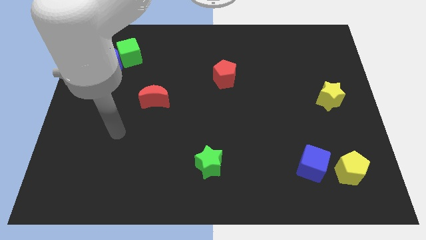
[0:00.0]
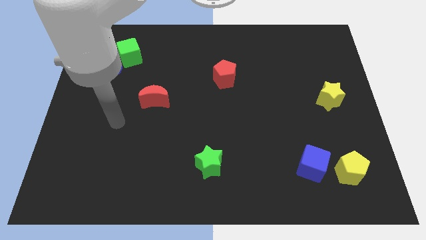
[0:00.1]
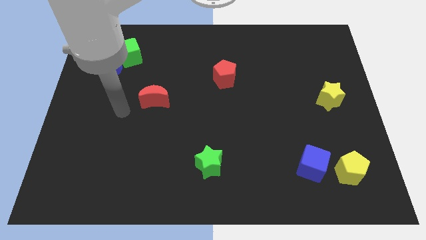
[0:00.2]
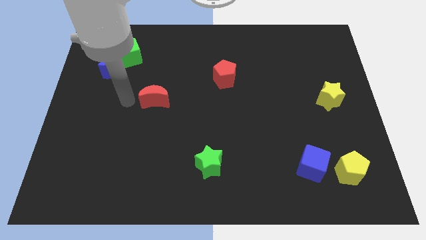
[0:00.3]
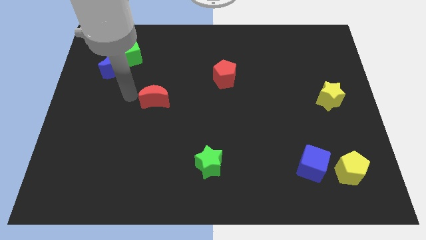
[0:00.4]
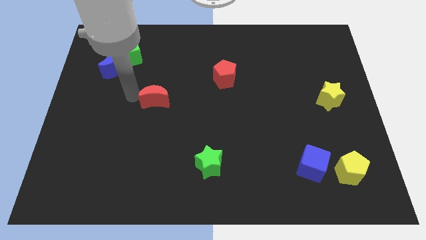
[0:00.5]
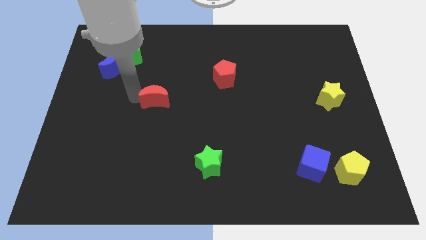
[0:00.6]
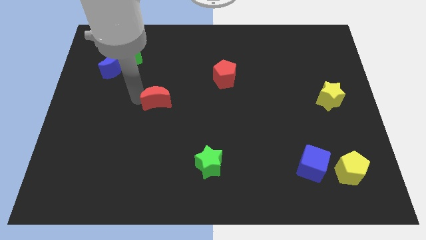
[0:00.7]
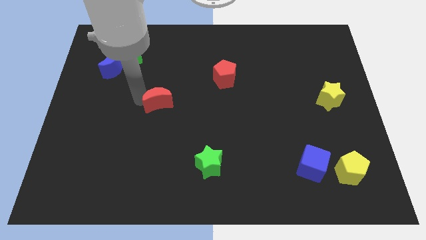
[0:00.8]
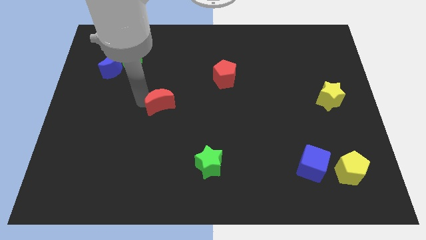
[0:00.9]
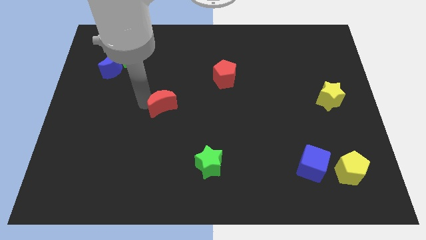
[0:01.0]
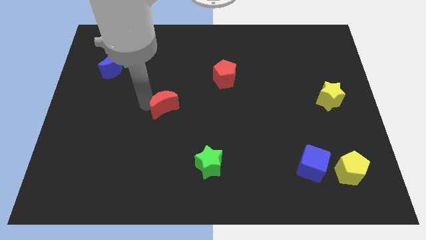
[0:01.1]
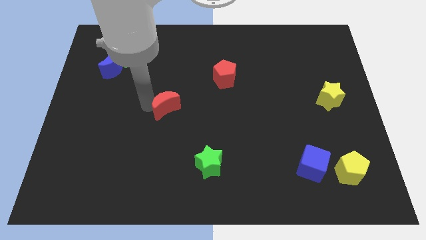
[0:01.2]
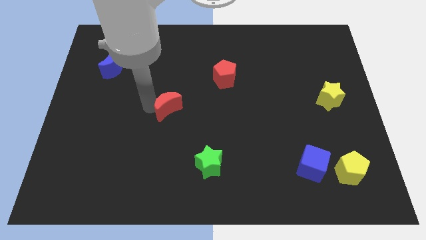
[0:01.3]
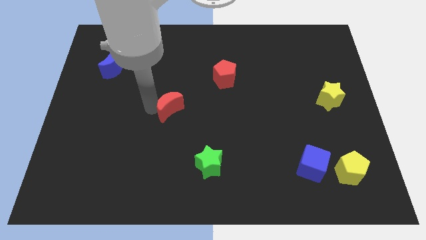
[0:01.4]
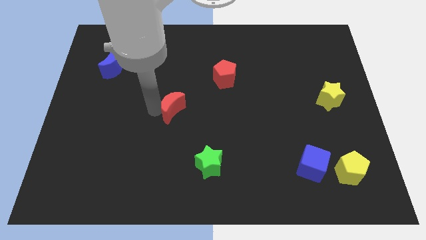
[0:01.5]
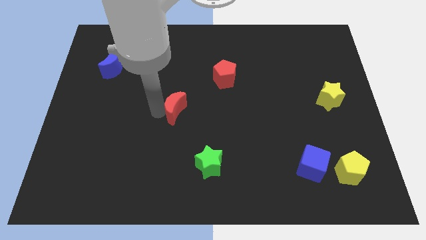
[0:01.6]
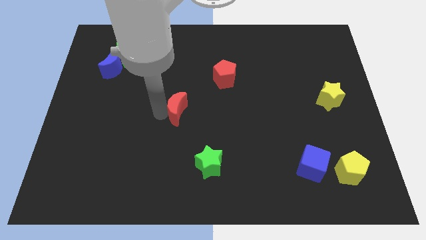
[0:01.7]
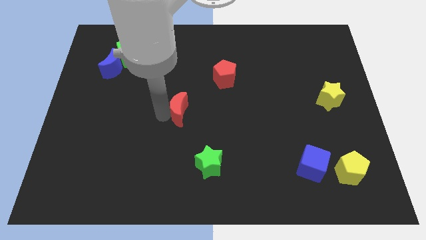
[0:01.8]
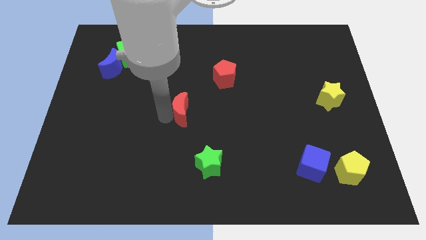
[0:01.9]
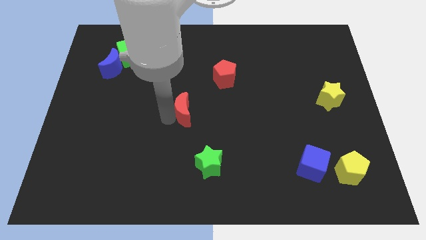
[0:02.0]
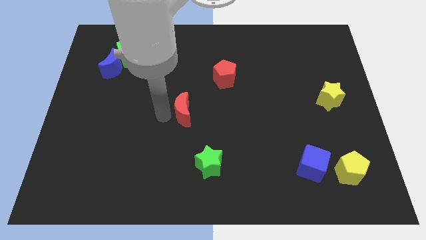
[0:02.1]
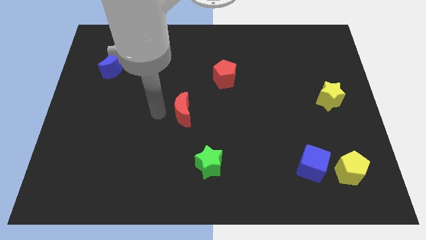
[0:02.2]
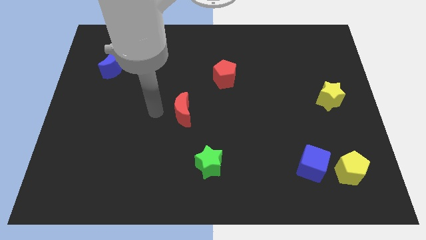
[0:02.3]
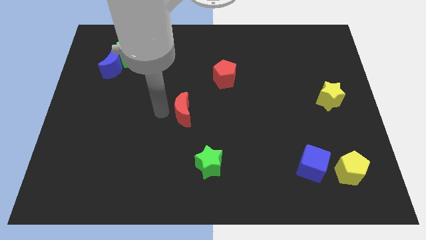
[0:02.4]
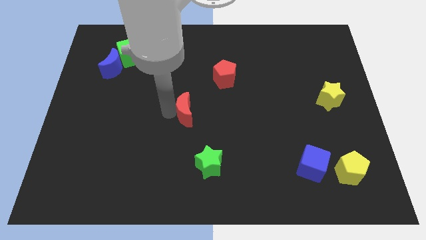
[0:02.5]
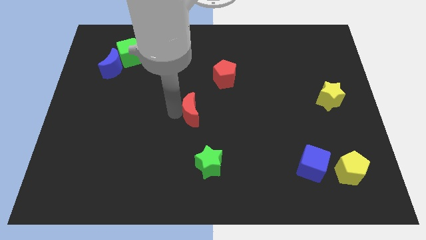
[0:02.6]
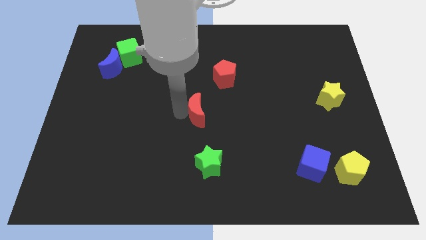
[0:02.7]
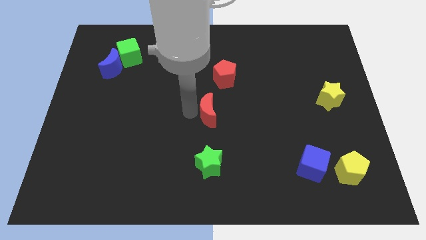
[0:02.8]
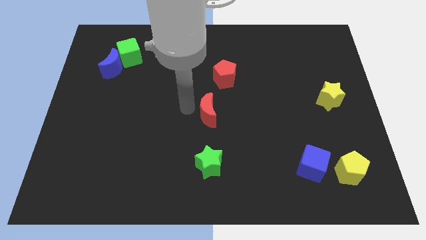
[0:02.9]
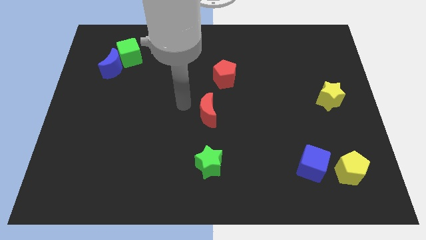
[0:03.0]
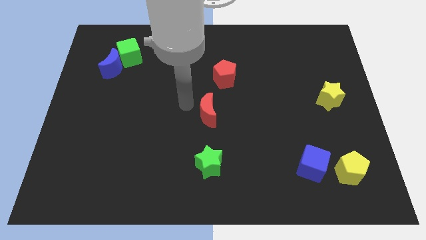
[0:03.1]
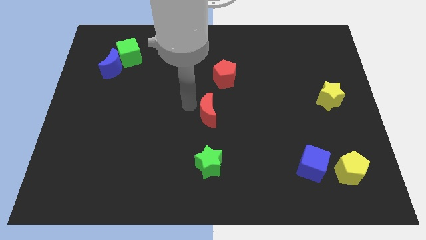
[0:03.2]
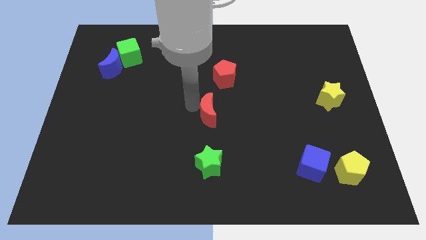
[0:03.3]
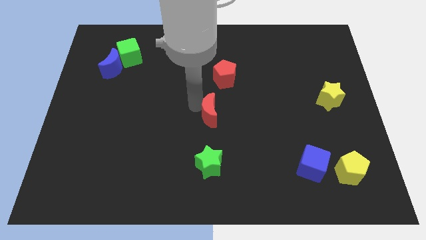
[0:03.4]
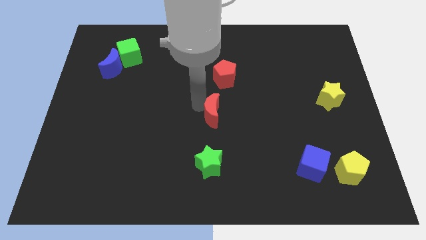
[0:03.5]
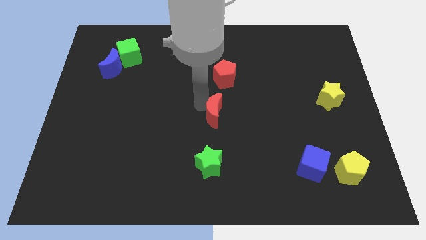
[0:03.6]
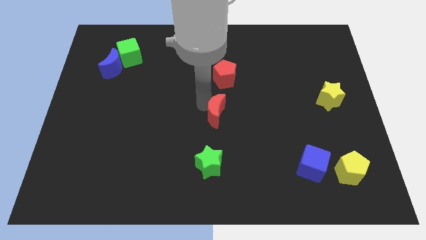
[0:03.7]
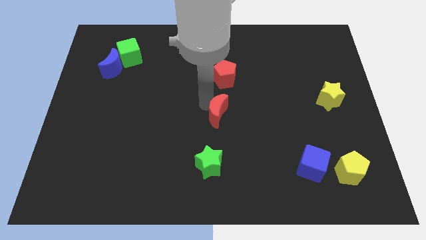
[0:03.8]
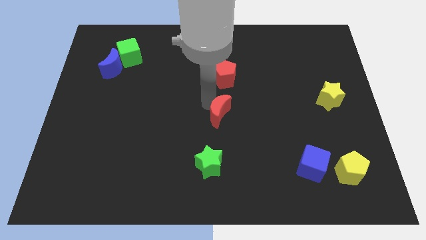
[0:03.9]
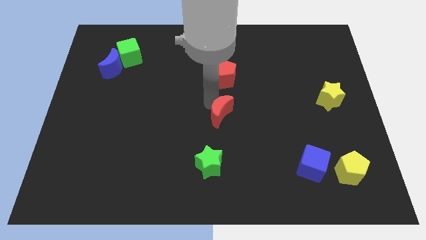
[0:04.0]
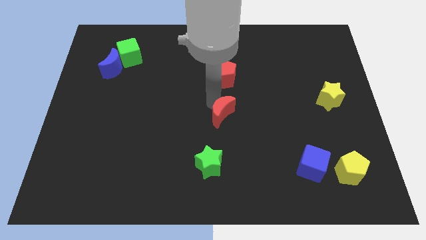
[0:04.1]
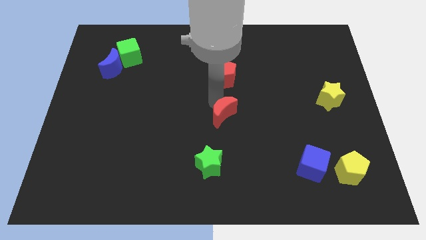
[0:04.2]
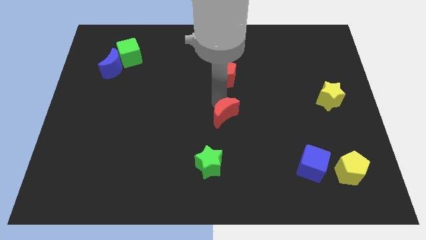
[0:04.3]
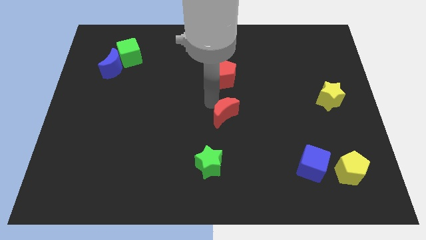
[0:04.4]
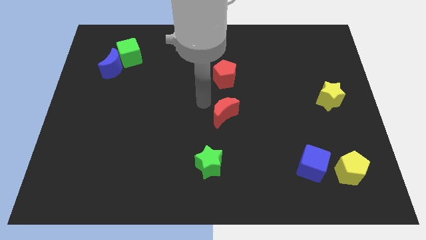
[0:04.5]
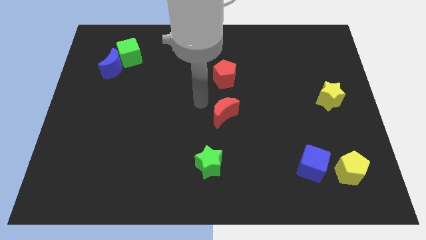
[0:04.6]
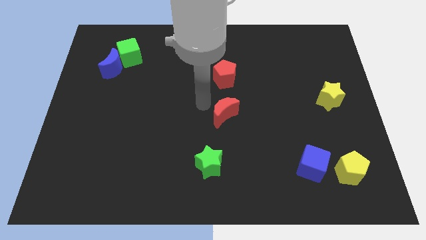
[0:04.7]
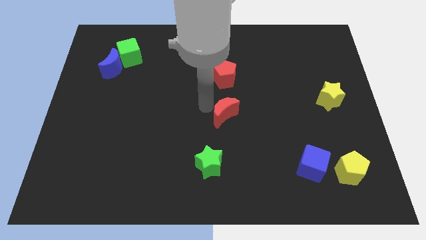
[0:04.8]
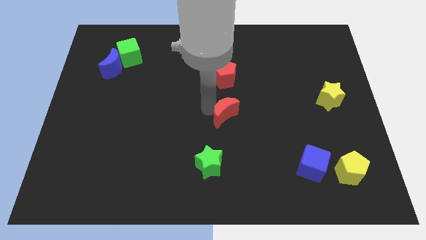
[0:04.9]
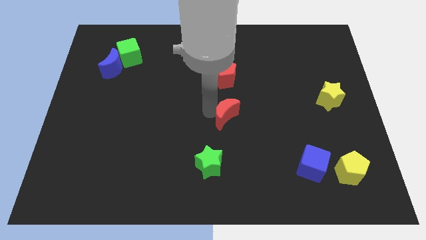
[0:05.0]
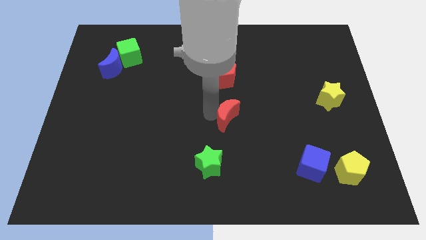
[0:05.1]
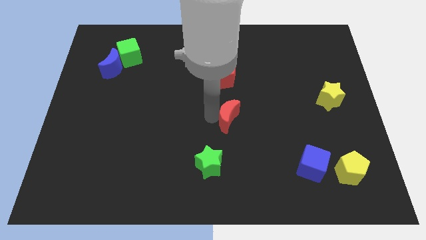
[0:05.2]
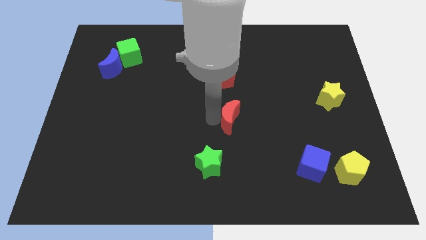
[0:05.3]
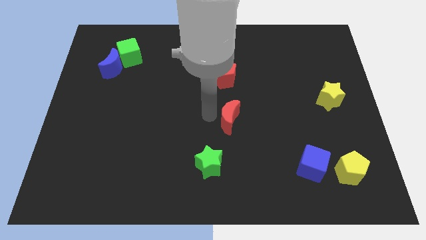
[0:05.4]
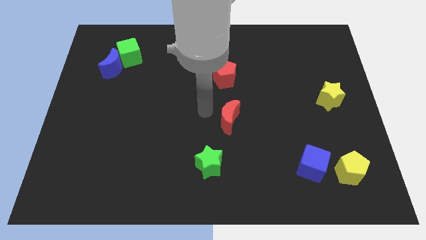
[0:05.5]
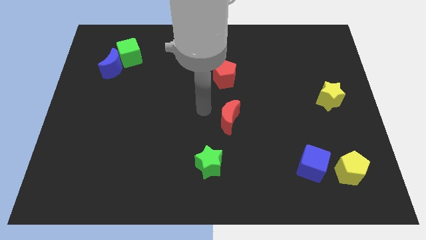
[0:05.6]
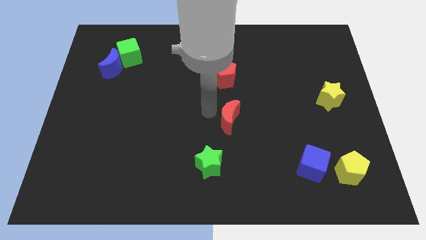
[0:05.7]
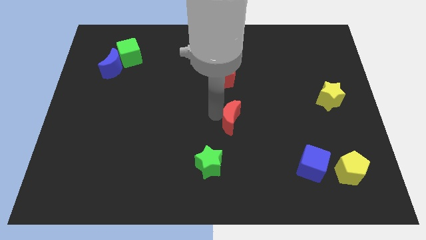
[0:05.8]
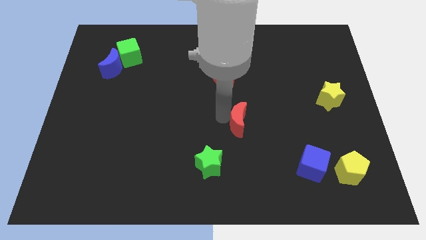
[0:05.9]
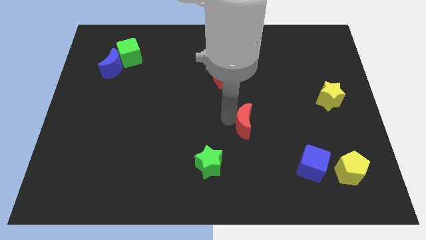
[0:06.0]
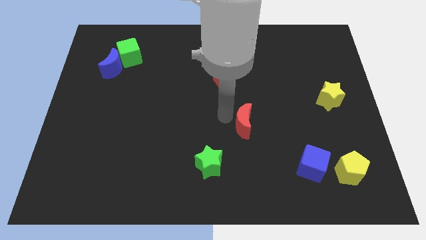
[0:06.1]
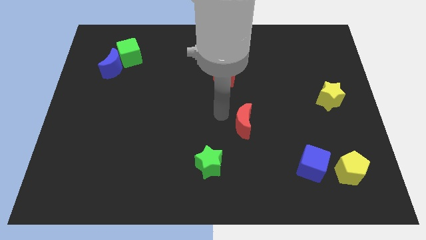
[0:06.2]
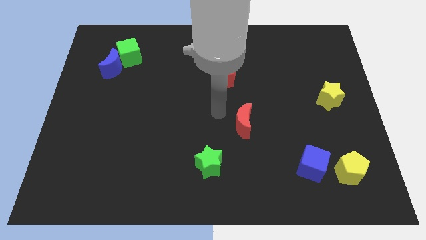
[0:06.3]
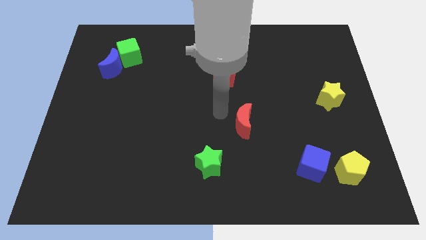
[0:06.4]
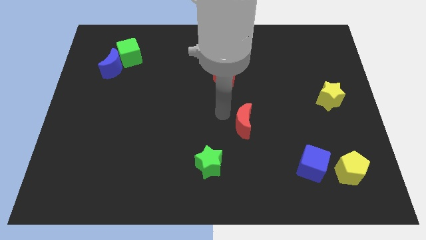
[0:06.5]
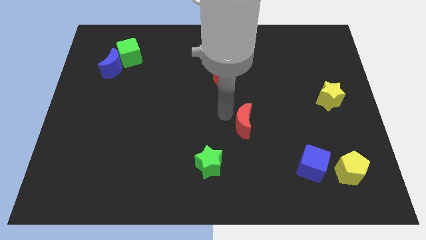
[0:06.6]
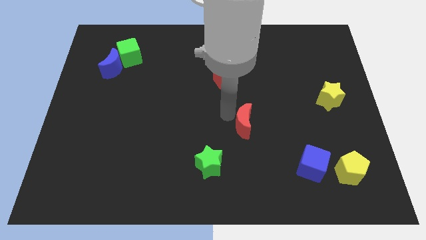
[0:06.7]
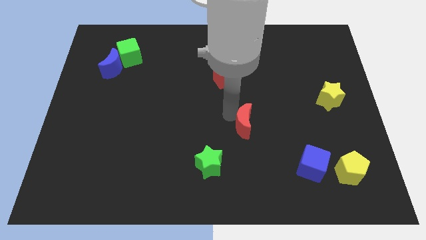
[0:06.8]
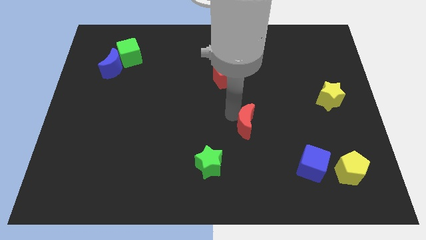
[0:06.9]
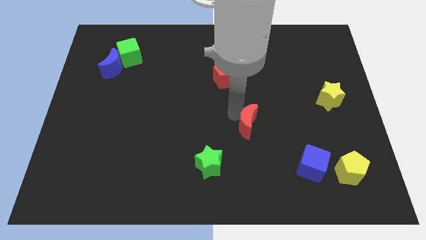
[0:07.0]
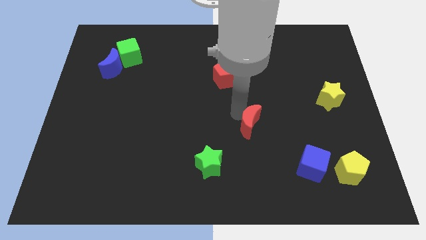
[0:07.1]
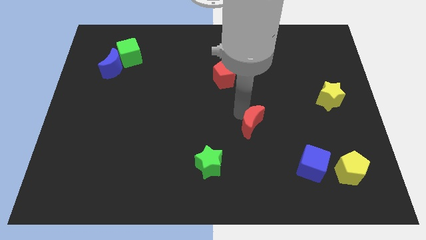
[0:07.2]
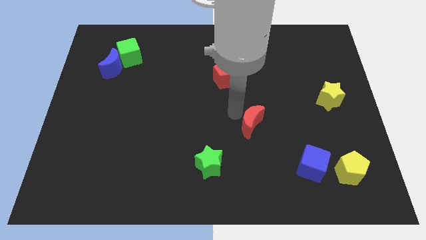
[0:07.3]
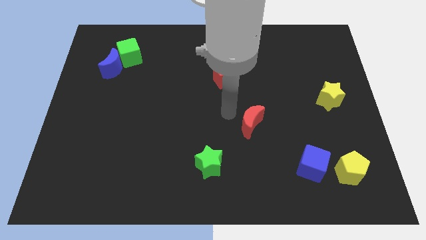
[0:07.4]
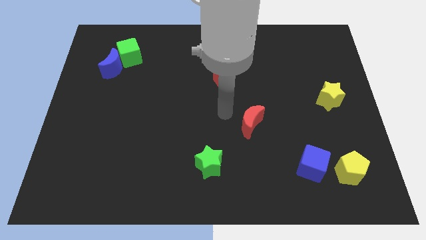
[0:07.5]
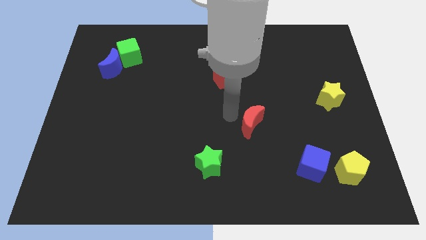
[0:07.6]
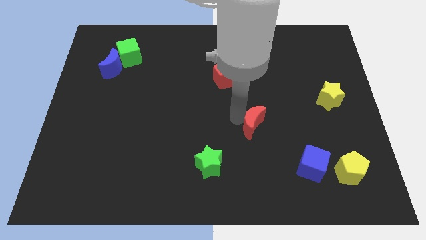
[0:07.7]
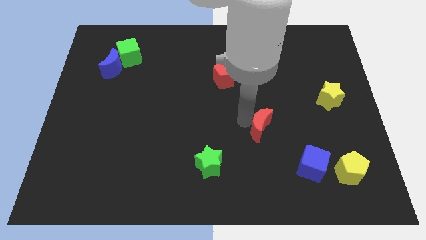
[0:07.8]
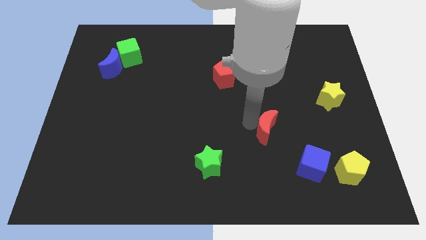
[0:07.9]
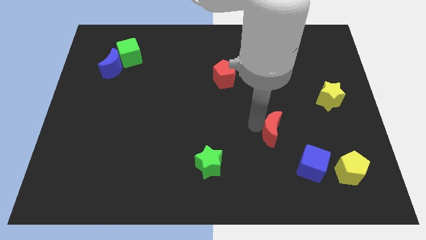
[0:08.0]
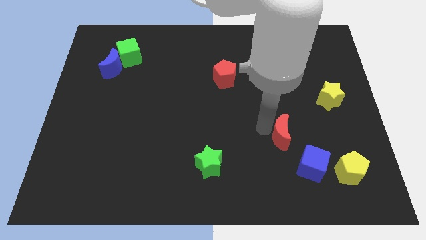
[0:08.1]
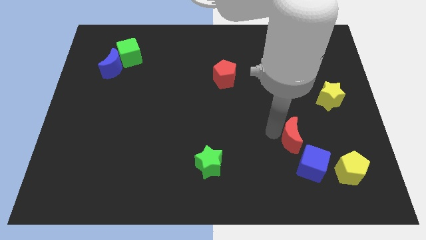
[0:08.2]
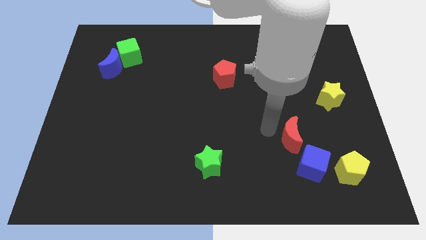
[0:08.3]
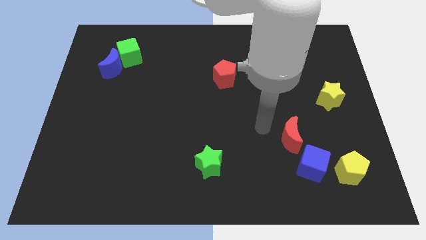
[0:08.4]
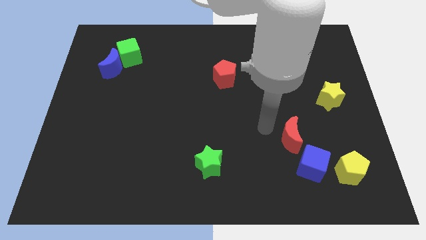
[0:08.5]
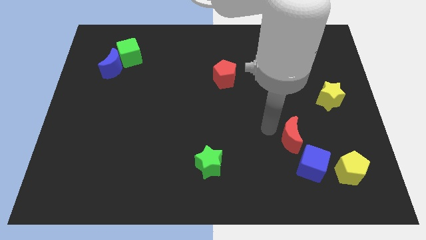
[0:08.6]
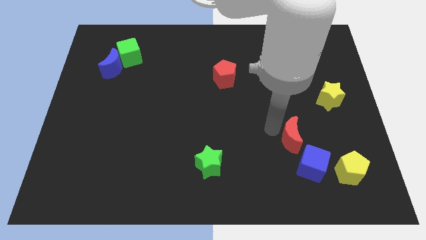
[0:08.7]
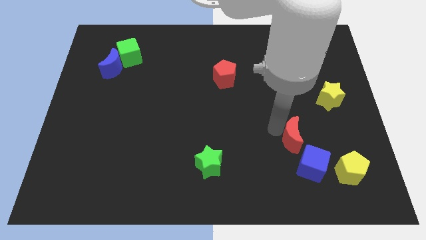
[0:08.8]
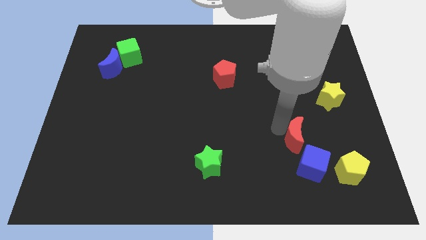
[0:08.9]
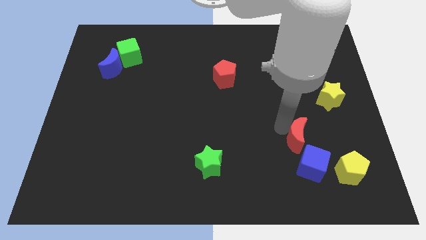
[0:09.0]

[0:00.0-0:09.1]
put the red moon diagonally up and to the left of the yellow pentagon
